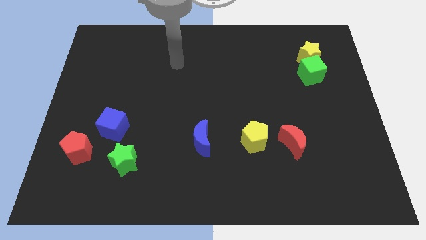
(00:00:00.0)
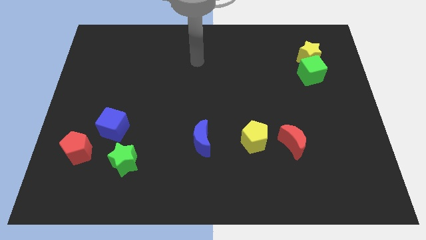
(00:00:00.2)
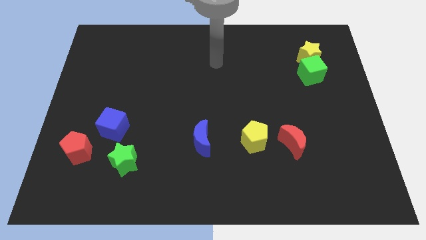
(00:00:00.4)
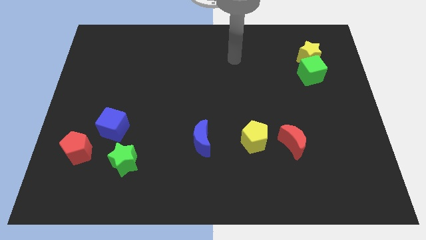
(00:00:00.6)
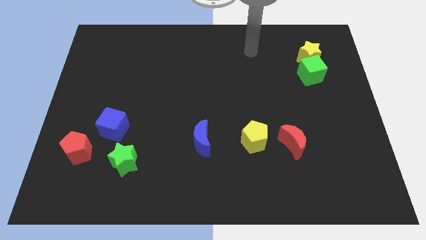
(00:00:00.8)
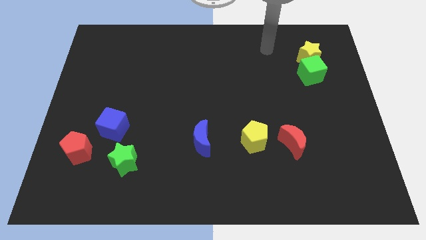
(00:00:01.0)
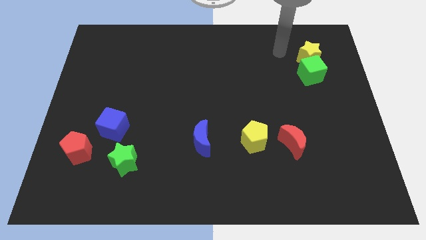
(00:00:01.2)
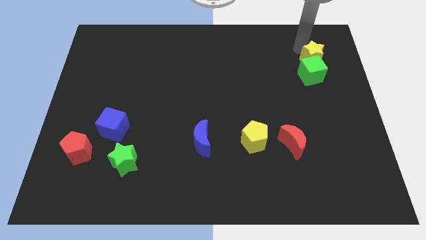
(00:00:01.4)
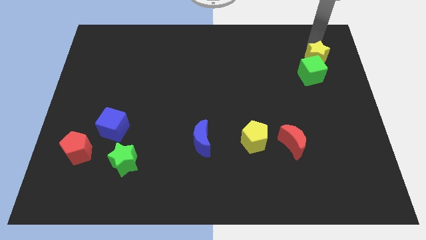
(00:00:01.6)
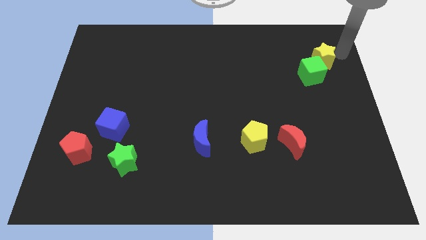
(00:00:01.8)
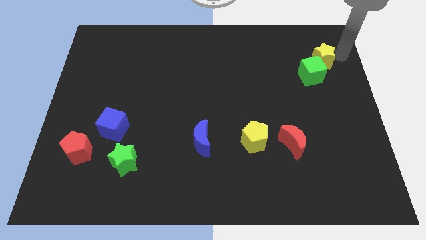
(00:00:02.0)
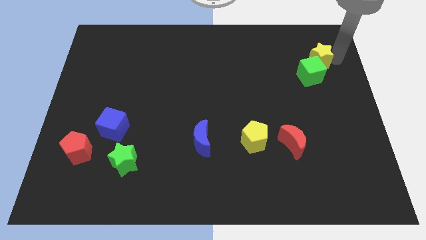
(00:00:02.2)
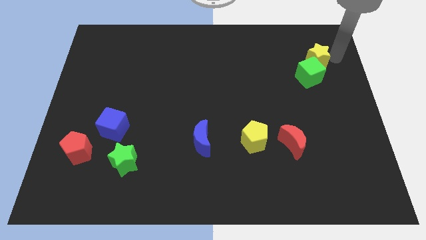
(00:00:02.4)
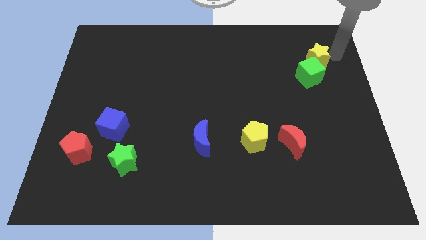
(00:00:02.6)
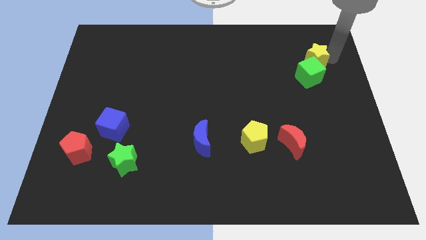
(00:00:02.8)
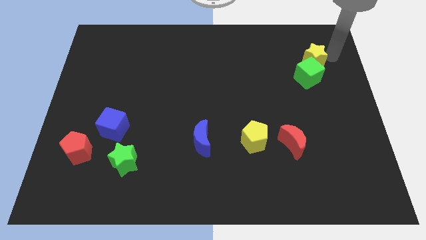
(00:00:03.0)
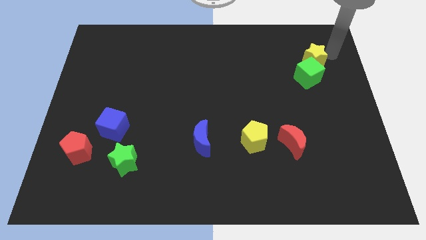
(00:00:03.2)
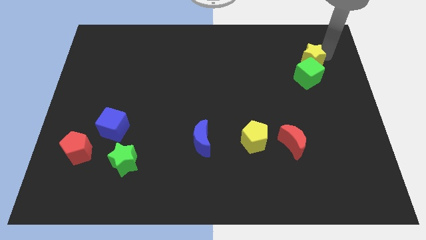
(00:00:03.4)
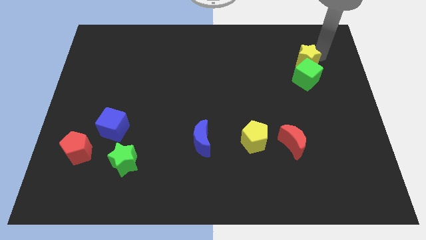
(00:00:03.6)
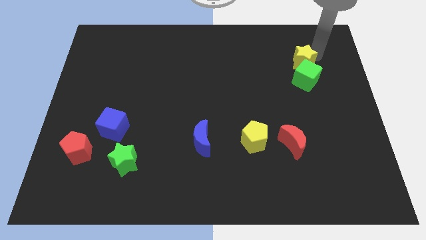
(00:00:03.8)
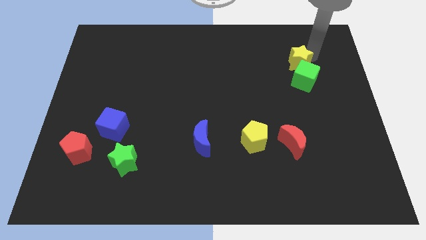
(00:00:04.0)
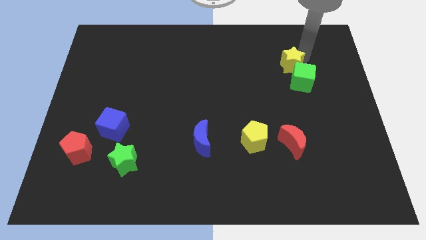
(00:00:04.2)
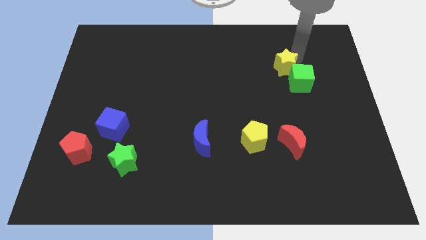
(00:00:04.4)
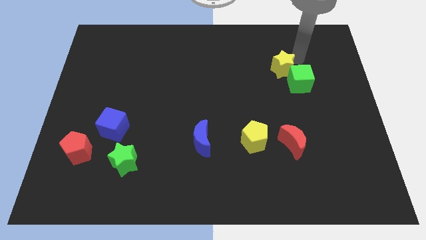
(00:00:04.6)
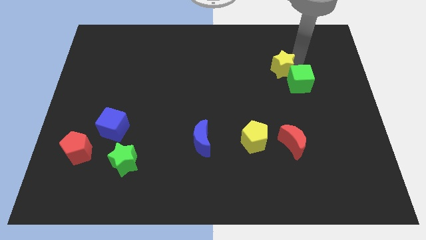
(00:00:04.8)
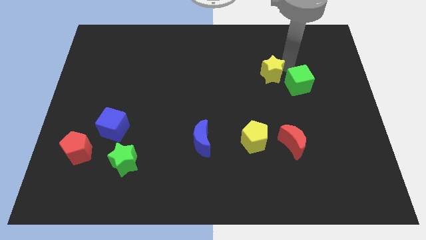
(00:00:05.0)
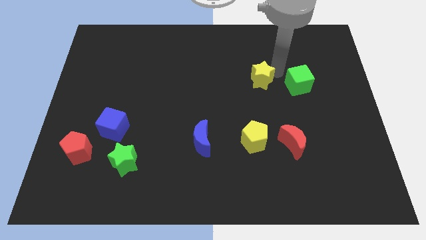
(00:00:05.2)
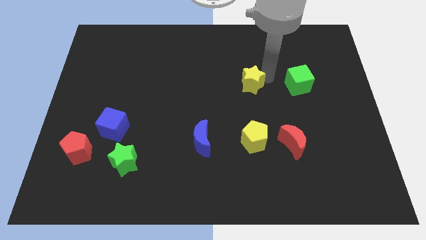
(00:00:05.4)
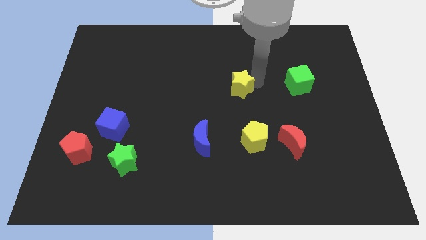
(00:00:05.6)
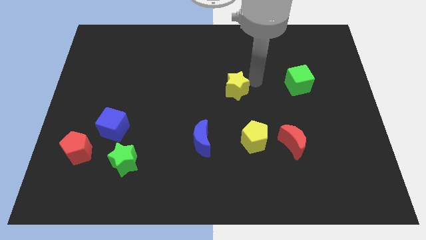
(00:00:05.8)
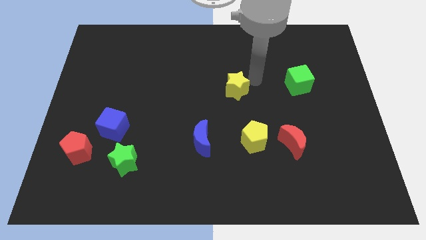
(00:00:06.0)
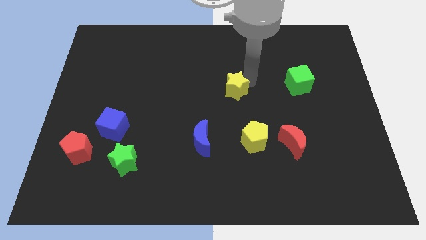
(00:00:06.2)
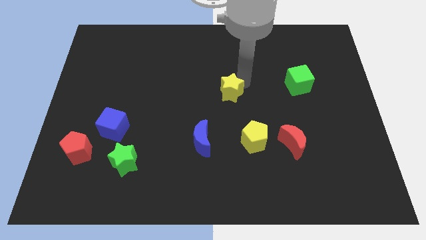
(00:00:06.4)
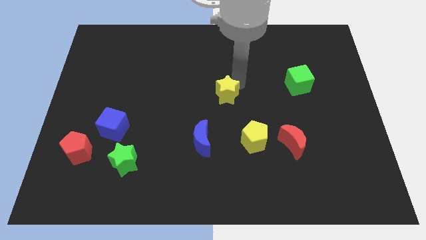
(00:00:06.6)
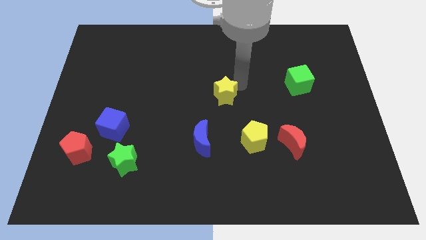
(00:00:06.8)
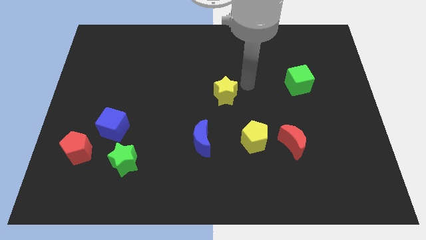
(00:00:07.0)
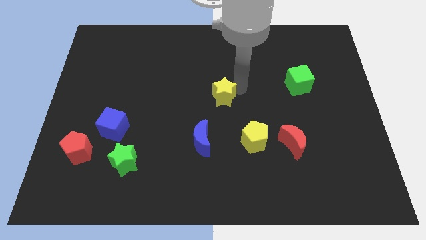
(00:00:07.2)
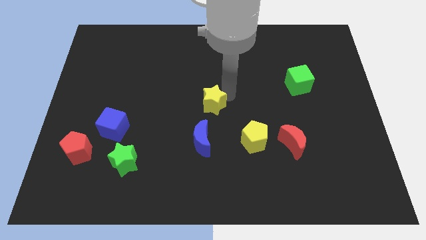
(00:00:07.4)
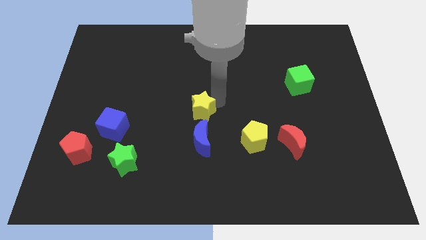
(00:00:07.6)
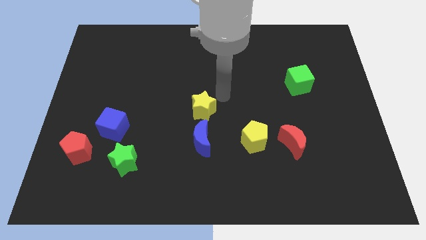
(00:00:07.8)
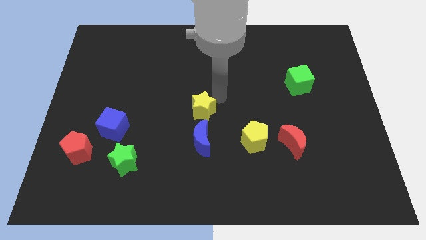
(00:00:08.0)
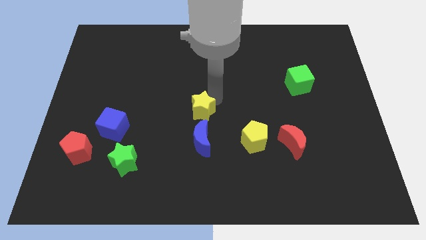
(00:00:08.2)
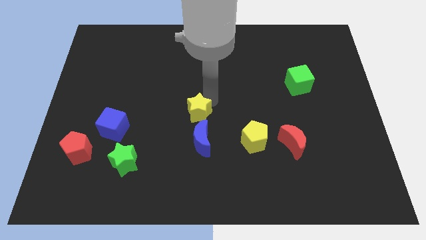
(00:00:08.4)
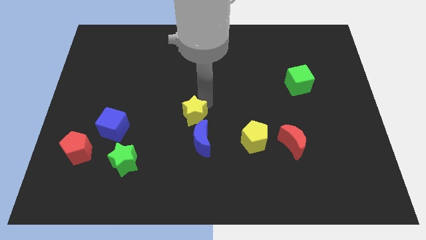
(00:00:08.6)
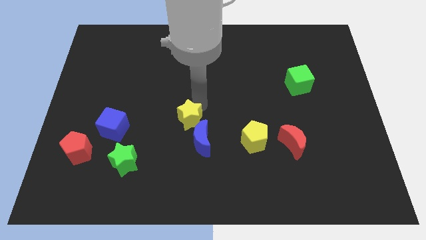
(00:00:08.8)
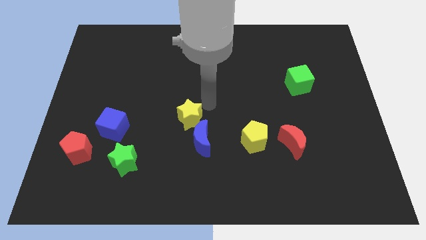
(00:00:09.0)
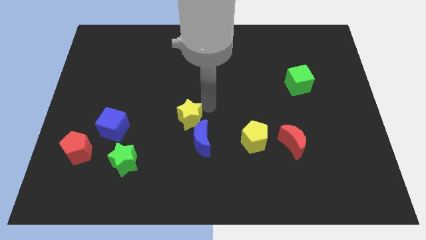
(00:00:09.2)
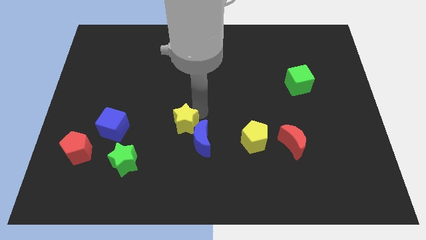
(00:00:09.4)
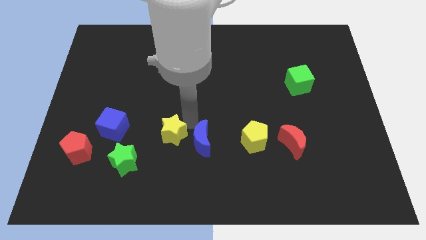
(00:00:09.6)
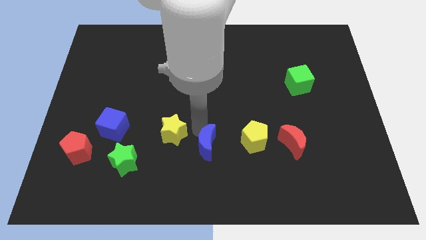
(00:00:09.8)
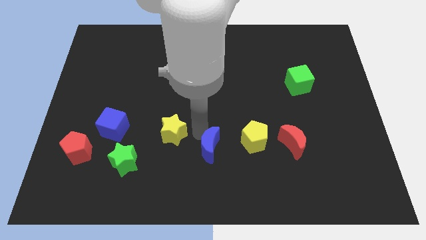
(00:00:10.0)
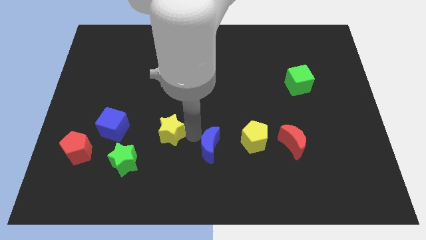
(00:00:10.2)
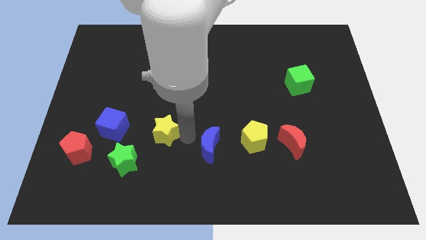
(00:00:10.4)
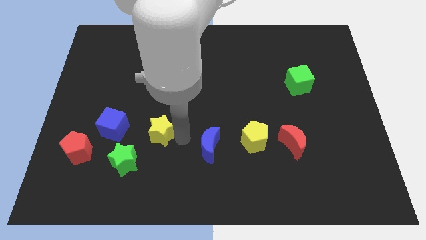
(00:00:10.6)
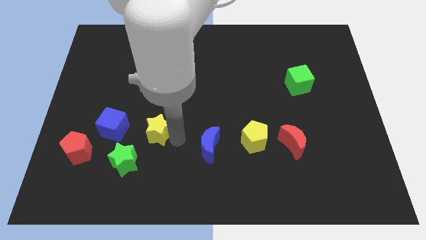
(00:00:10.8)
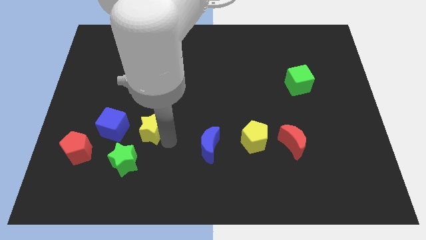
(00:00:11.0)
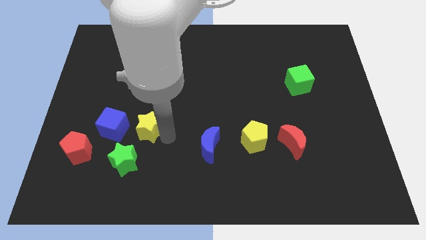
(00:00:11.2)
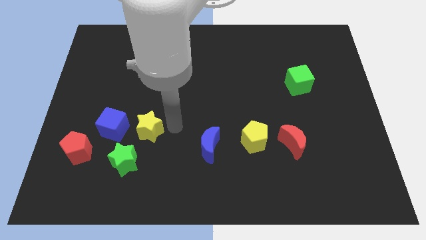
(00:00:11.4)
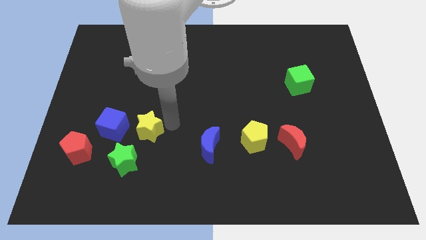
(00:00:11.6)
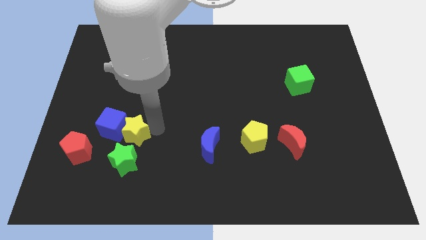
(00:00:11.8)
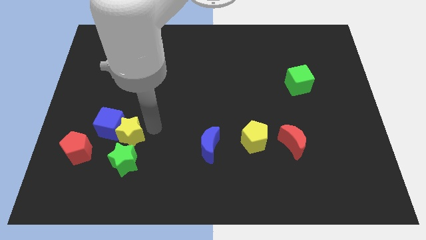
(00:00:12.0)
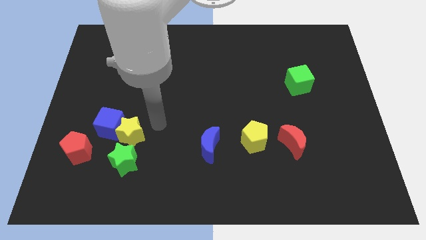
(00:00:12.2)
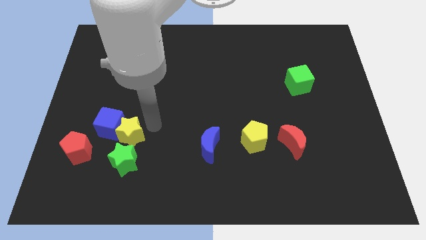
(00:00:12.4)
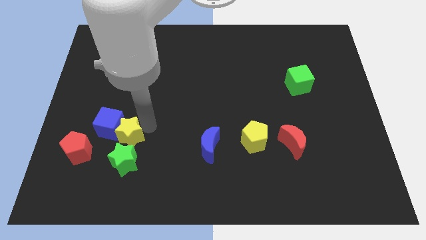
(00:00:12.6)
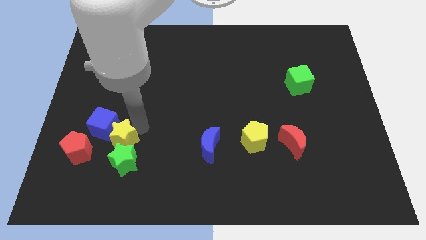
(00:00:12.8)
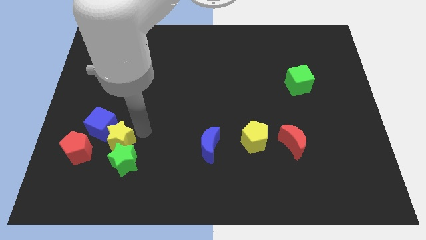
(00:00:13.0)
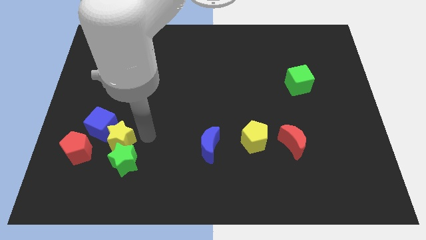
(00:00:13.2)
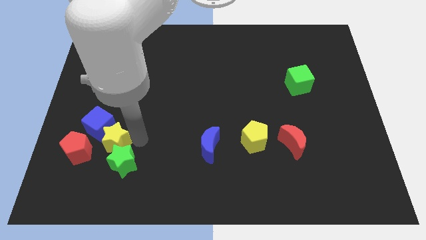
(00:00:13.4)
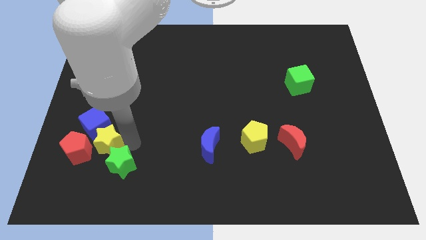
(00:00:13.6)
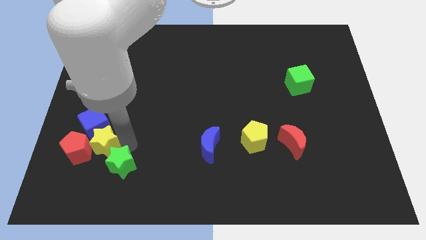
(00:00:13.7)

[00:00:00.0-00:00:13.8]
push the yellow star close to the red pentagon

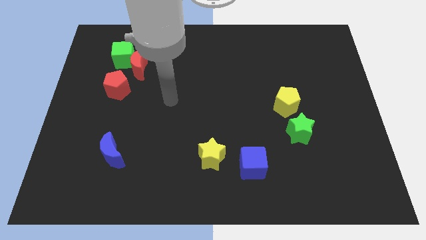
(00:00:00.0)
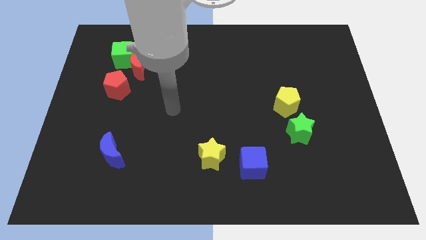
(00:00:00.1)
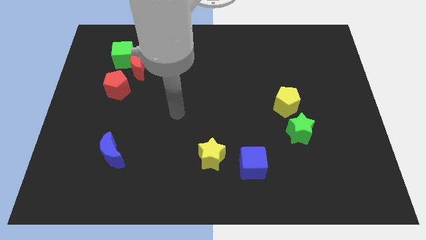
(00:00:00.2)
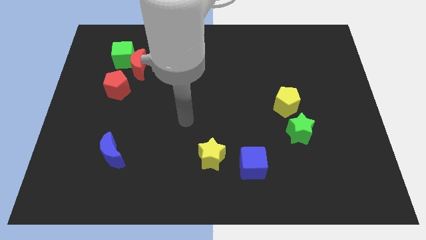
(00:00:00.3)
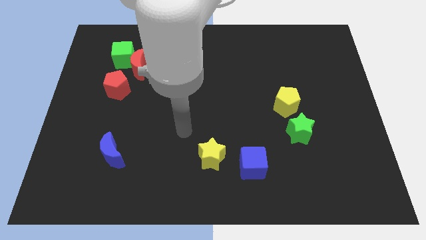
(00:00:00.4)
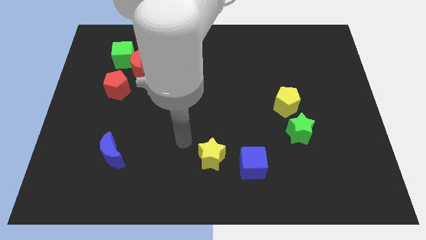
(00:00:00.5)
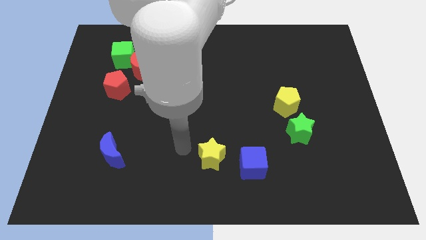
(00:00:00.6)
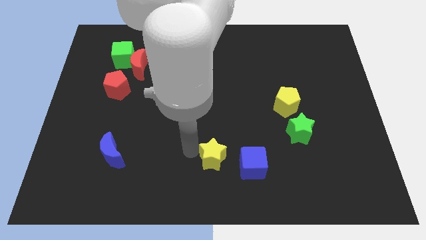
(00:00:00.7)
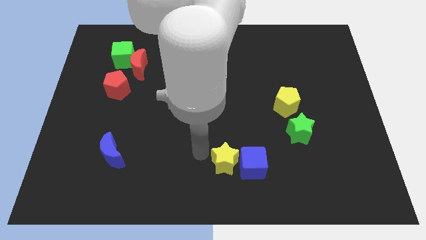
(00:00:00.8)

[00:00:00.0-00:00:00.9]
push the yellow star to the blue cube
